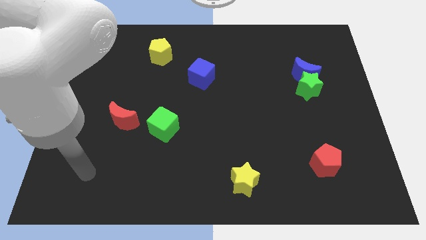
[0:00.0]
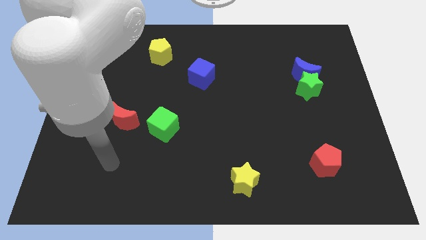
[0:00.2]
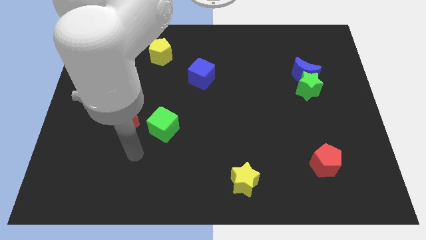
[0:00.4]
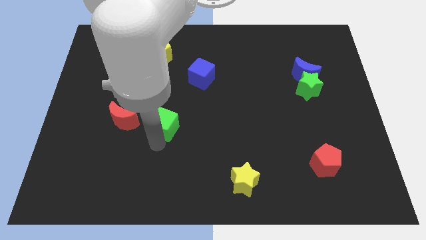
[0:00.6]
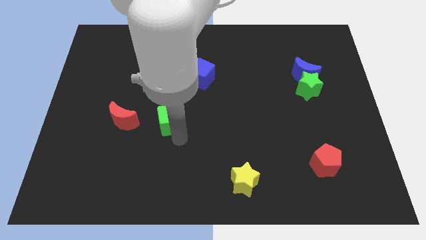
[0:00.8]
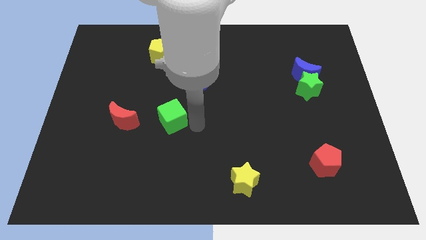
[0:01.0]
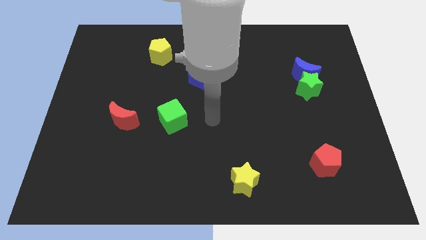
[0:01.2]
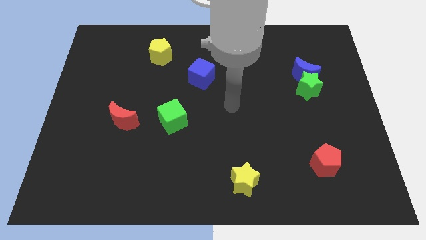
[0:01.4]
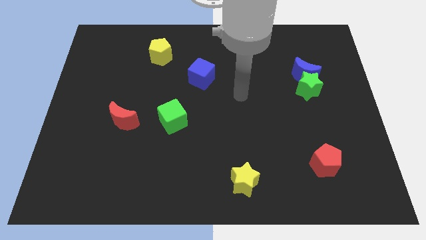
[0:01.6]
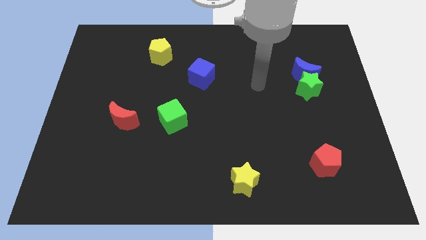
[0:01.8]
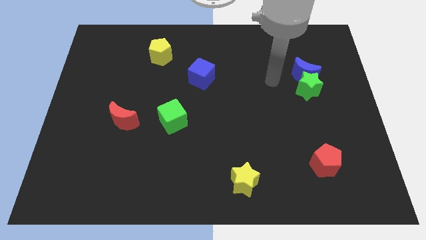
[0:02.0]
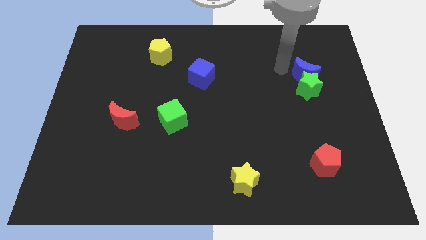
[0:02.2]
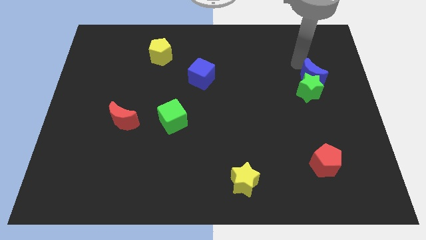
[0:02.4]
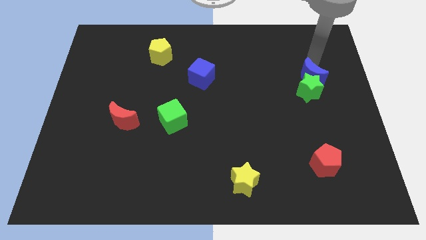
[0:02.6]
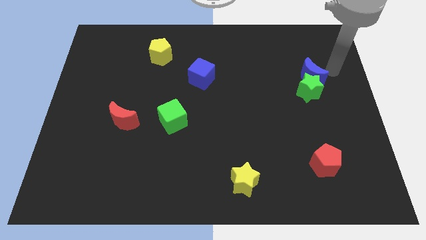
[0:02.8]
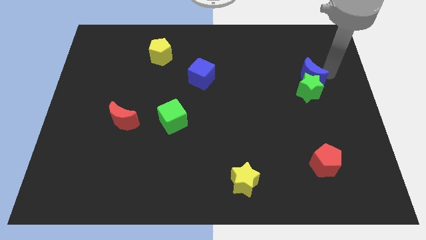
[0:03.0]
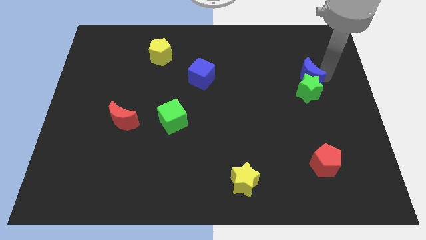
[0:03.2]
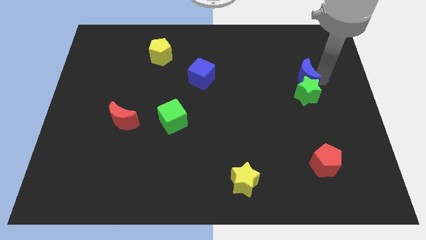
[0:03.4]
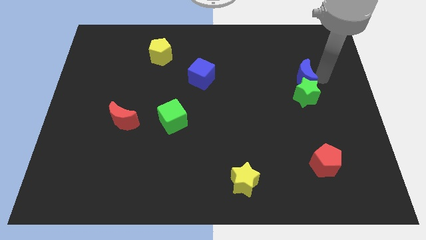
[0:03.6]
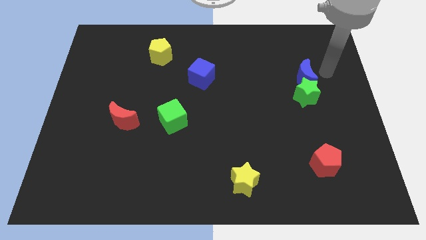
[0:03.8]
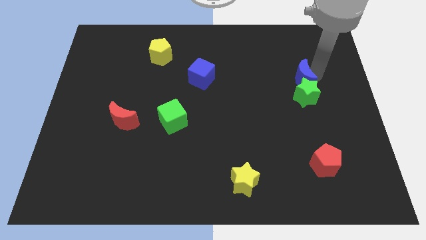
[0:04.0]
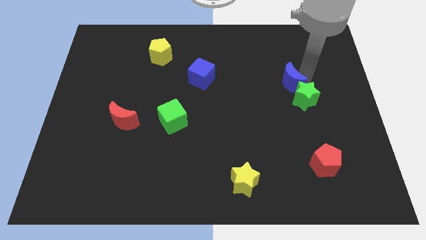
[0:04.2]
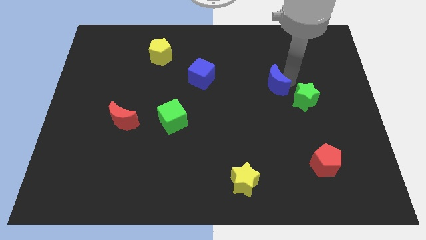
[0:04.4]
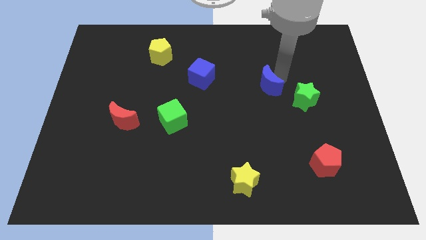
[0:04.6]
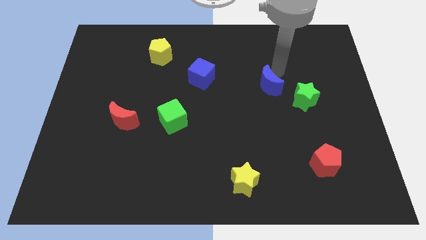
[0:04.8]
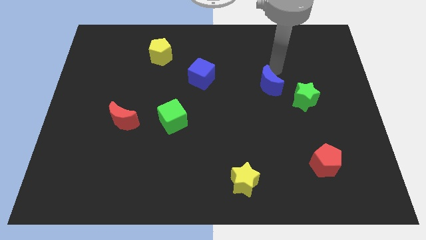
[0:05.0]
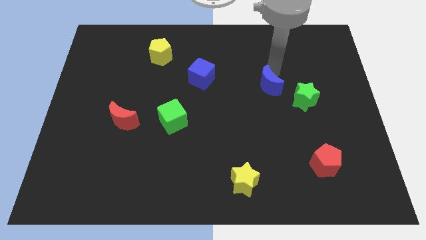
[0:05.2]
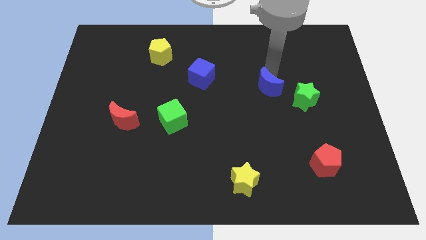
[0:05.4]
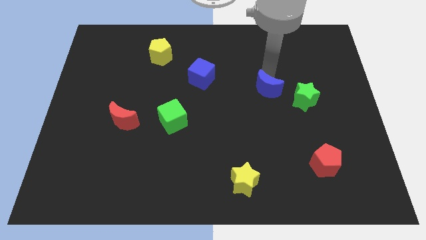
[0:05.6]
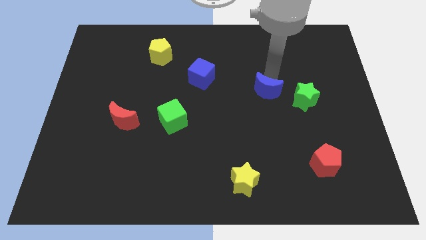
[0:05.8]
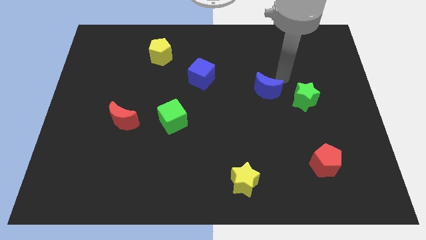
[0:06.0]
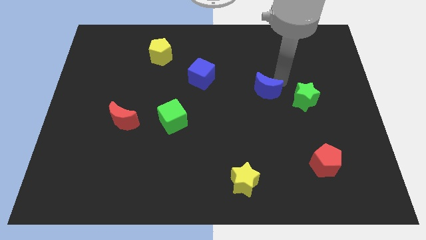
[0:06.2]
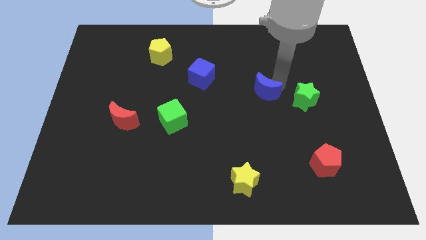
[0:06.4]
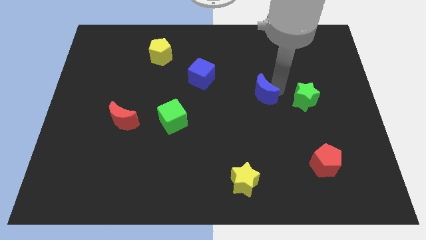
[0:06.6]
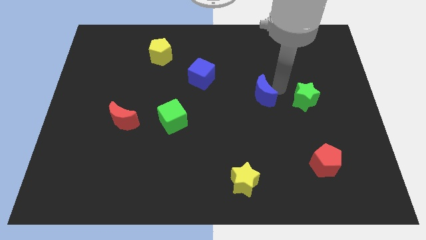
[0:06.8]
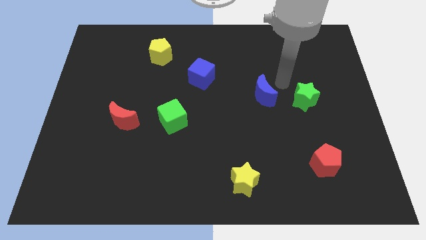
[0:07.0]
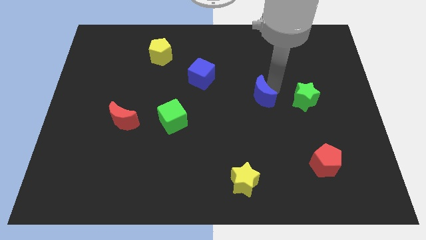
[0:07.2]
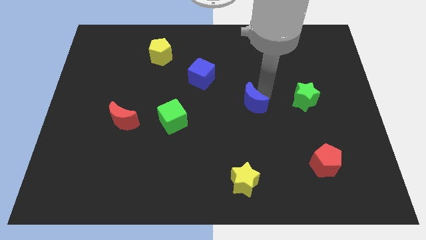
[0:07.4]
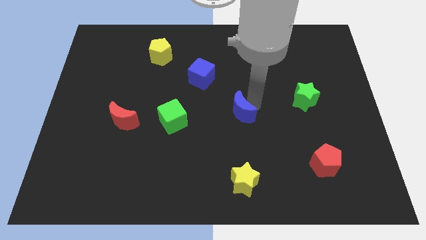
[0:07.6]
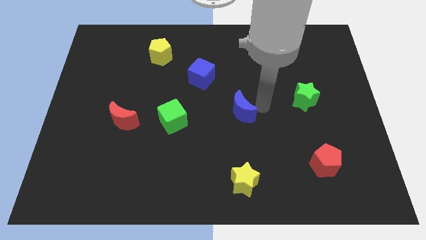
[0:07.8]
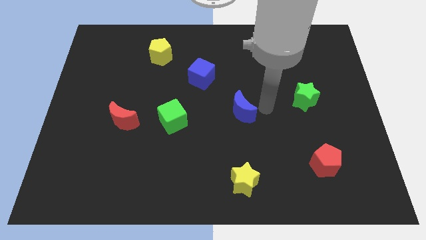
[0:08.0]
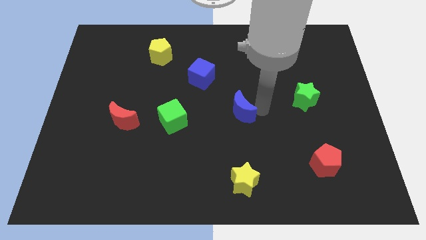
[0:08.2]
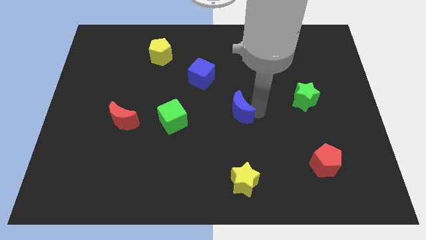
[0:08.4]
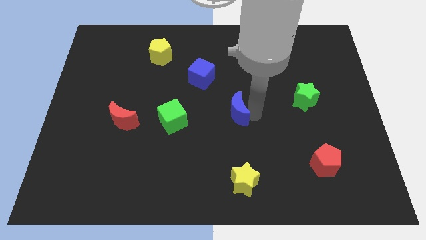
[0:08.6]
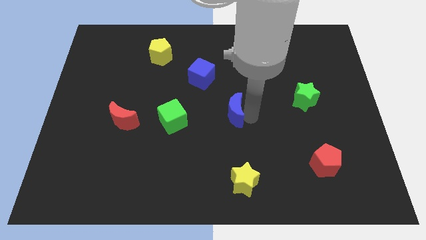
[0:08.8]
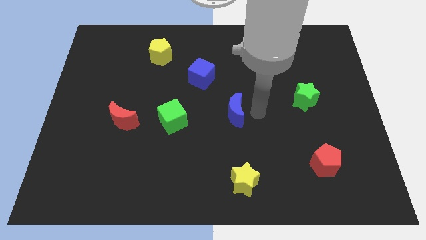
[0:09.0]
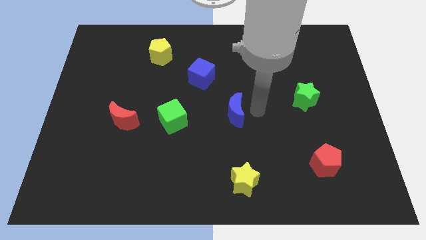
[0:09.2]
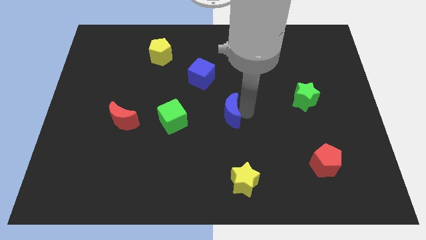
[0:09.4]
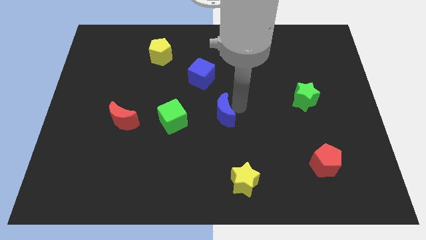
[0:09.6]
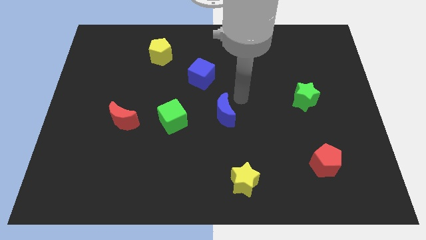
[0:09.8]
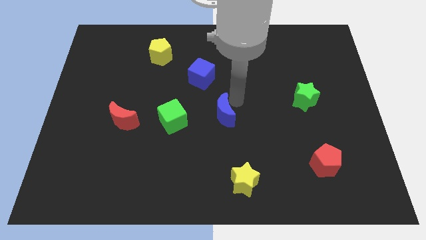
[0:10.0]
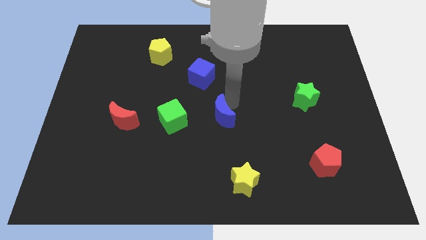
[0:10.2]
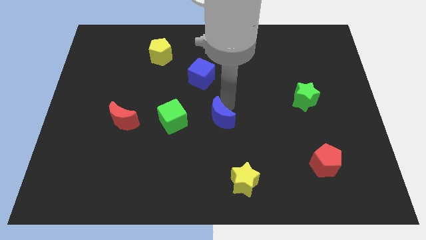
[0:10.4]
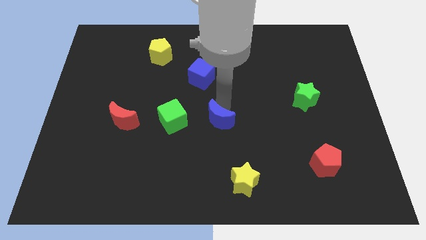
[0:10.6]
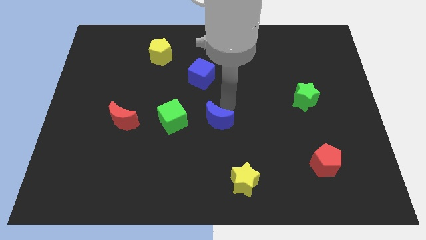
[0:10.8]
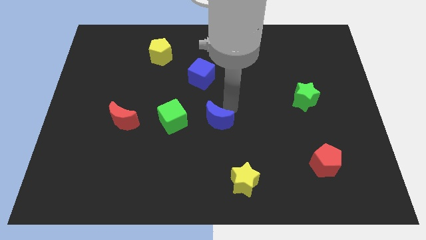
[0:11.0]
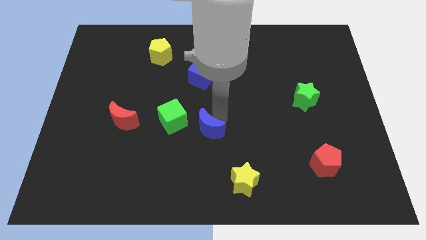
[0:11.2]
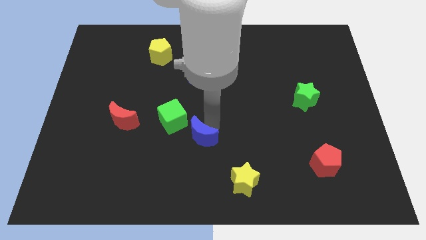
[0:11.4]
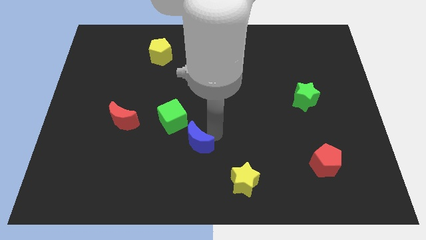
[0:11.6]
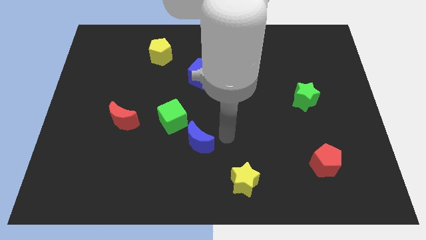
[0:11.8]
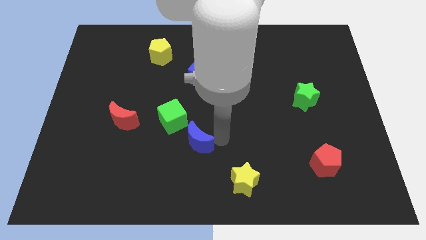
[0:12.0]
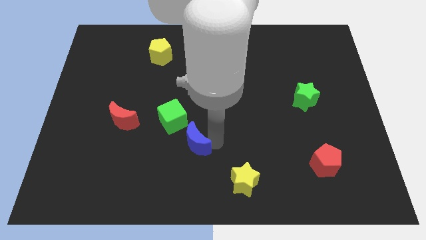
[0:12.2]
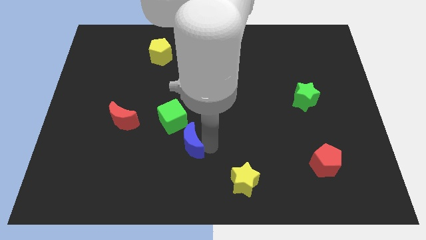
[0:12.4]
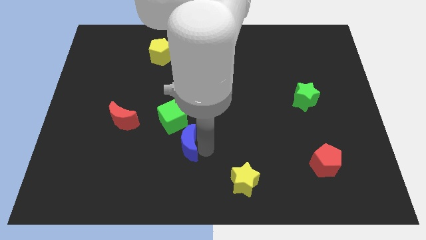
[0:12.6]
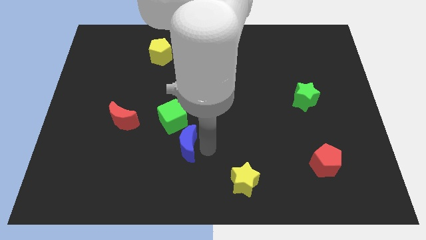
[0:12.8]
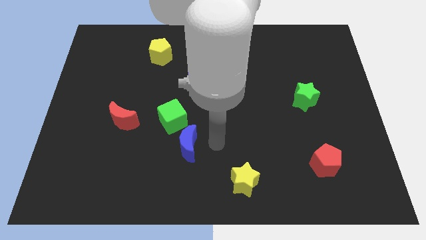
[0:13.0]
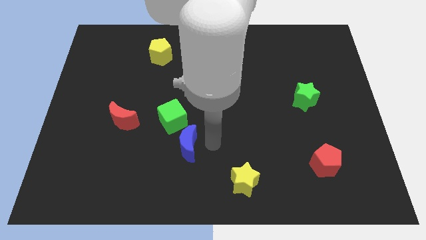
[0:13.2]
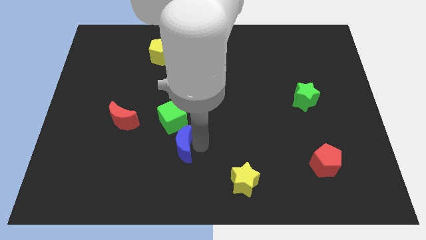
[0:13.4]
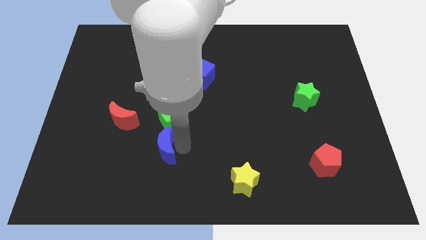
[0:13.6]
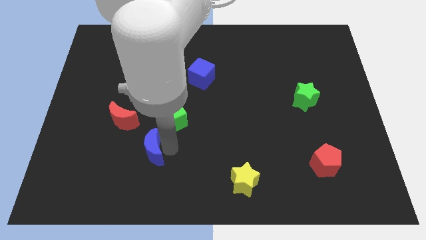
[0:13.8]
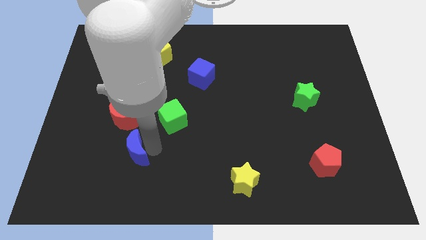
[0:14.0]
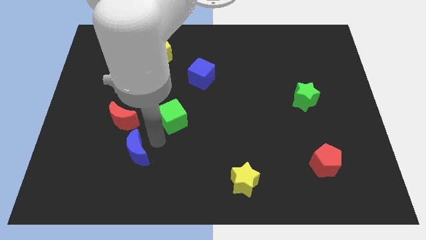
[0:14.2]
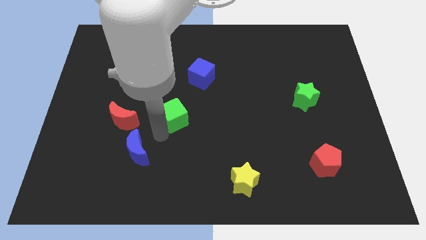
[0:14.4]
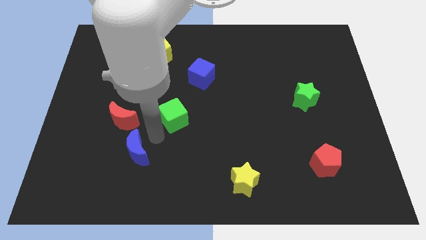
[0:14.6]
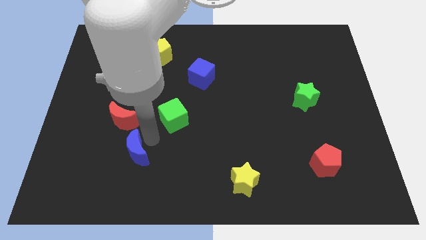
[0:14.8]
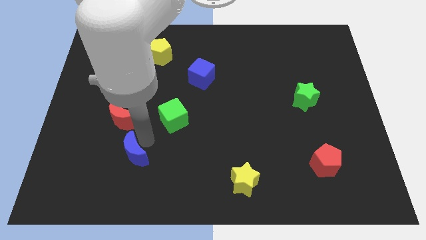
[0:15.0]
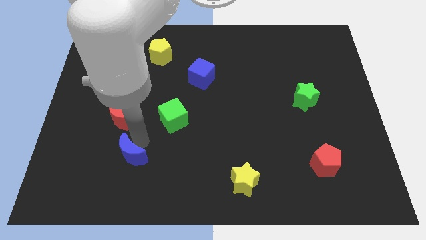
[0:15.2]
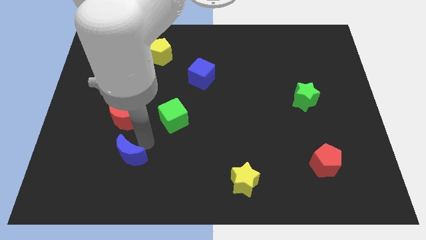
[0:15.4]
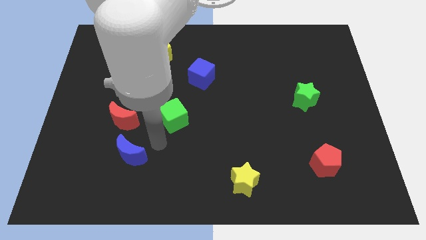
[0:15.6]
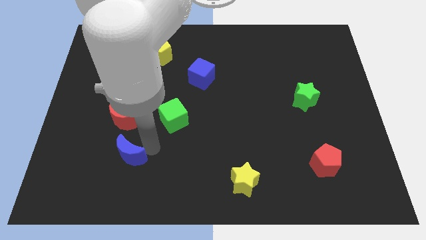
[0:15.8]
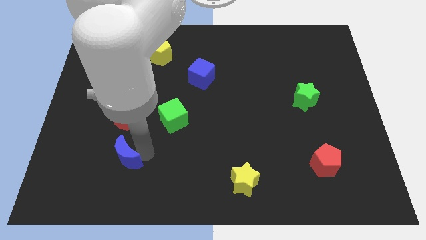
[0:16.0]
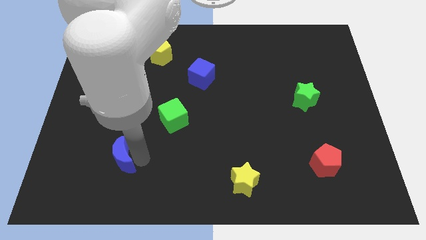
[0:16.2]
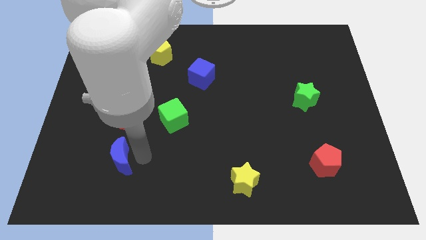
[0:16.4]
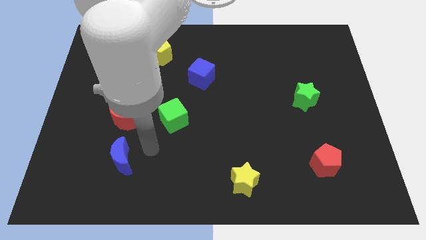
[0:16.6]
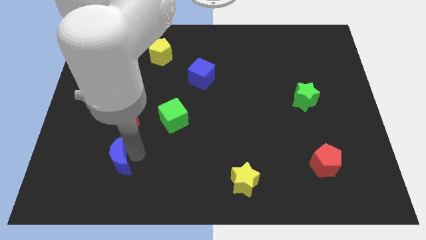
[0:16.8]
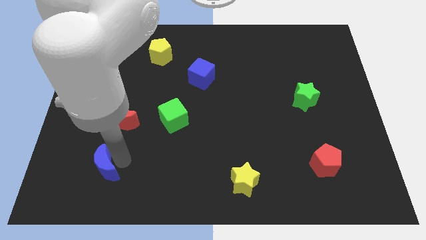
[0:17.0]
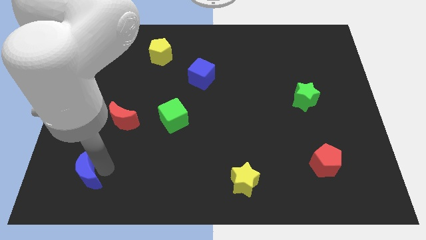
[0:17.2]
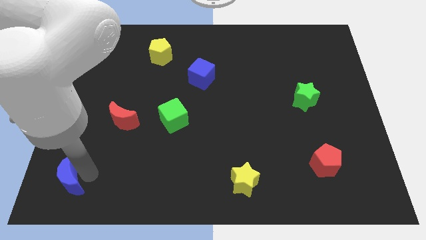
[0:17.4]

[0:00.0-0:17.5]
slide the blue moon to the lower left corner
